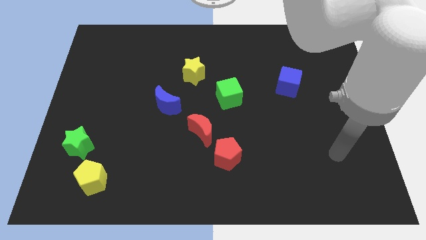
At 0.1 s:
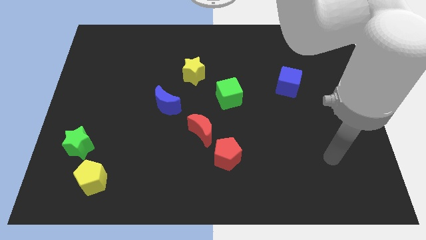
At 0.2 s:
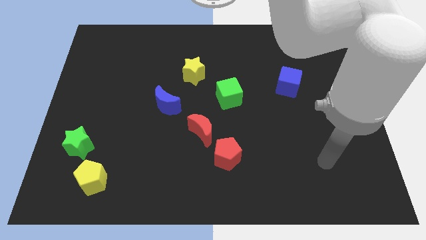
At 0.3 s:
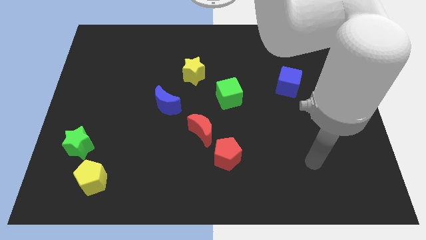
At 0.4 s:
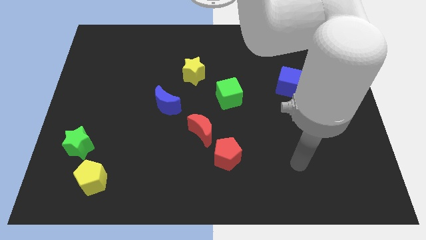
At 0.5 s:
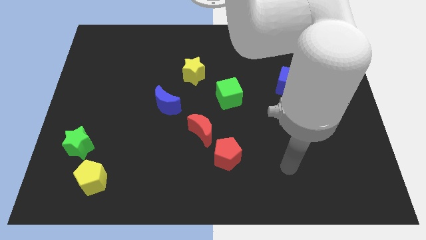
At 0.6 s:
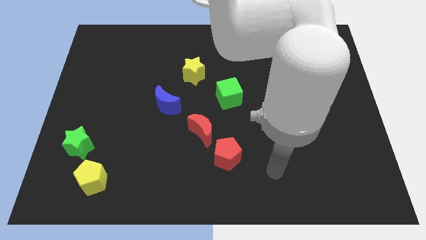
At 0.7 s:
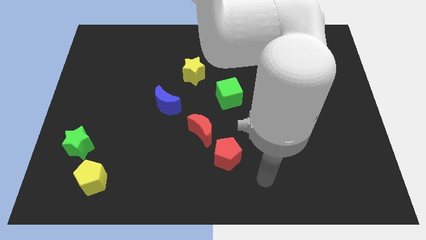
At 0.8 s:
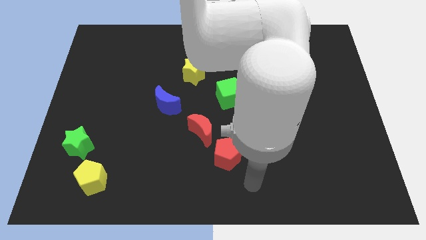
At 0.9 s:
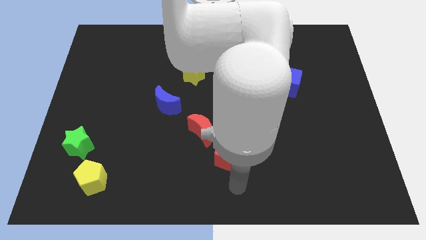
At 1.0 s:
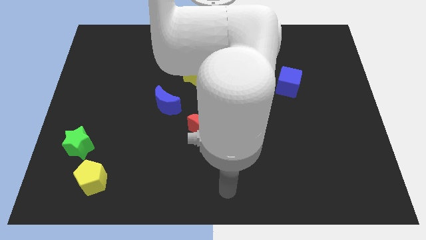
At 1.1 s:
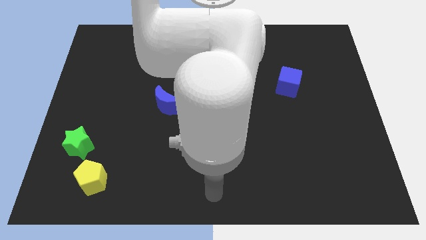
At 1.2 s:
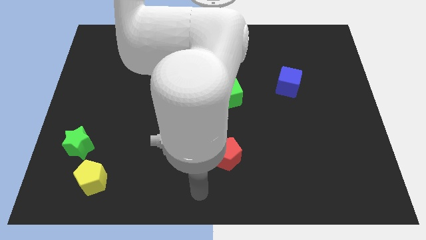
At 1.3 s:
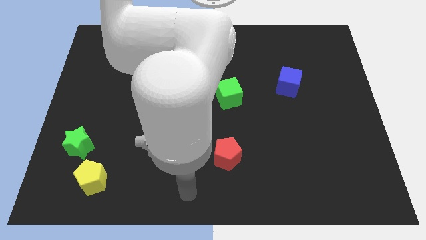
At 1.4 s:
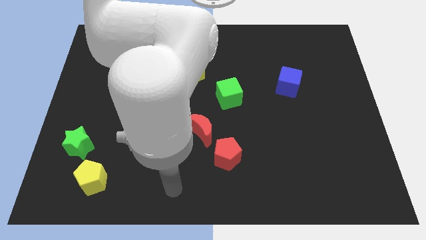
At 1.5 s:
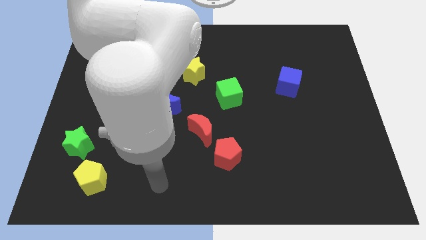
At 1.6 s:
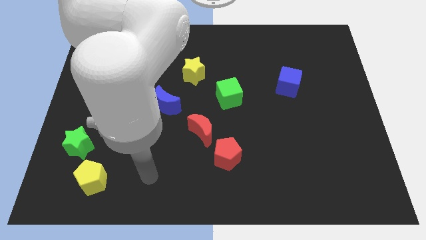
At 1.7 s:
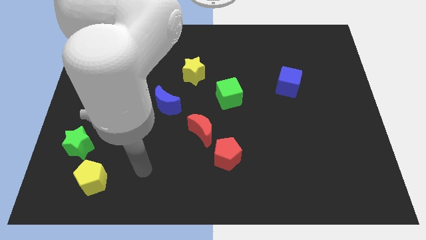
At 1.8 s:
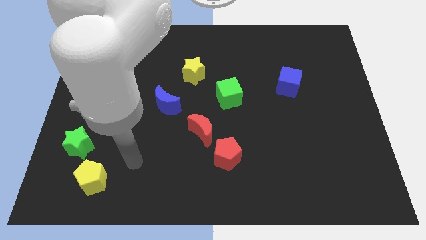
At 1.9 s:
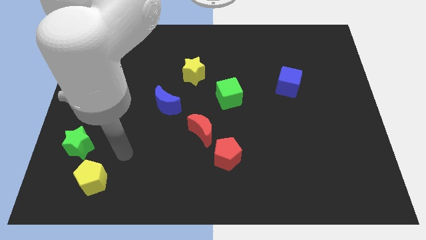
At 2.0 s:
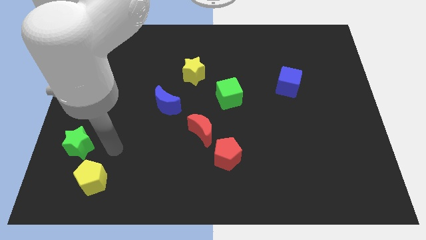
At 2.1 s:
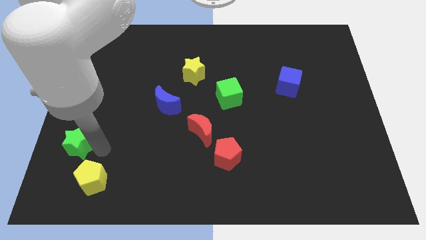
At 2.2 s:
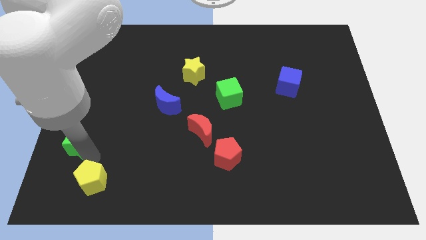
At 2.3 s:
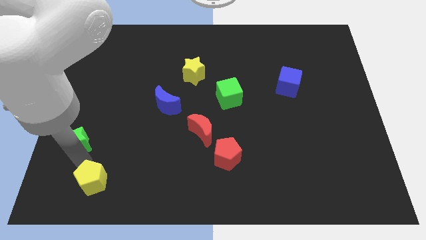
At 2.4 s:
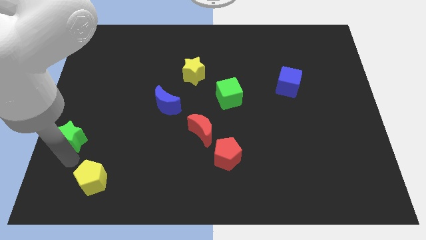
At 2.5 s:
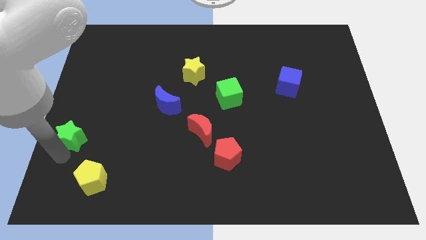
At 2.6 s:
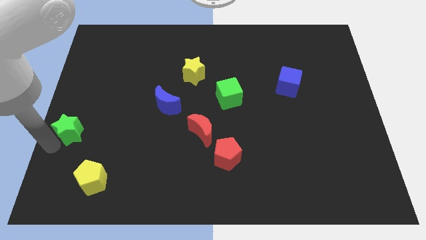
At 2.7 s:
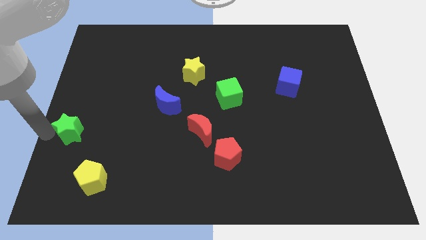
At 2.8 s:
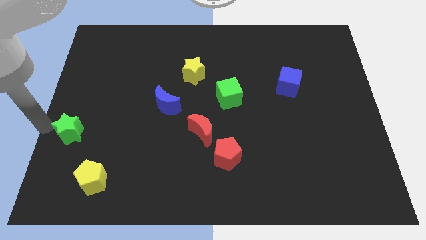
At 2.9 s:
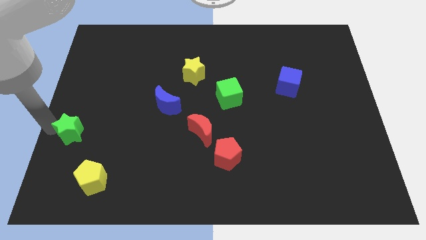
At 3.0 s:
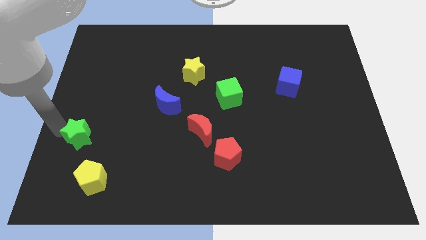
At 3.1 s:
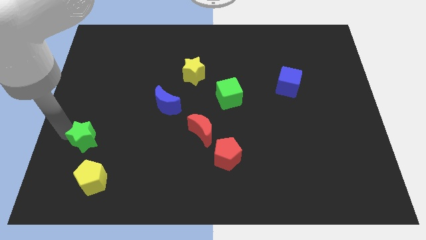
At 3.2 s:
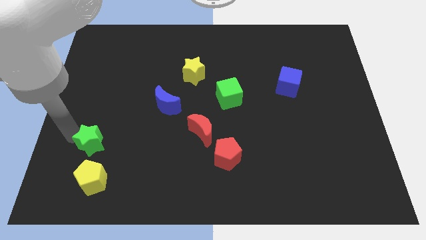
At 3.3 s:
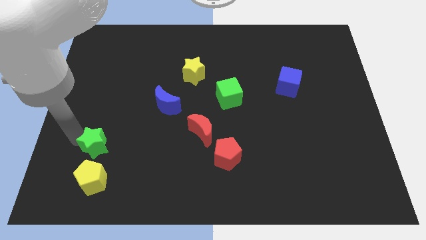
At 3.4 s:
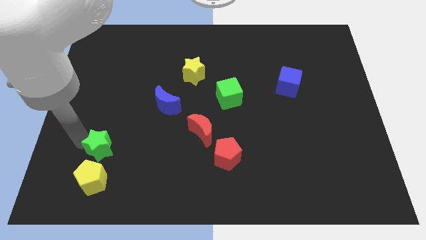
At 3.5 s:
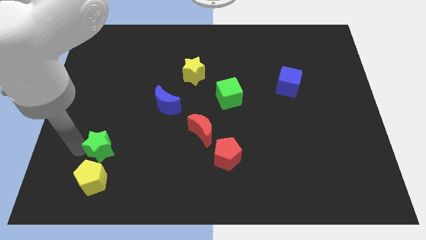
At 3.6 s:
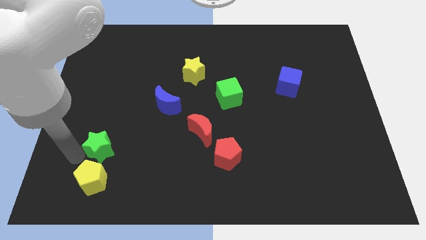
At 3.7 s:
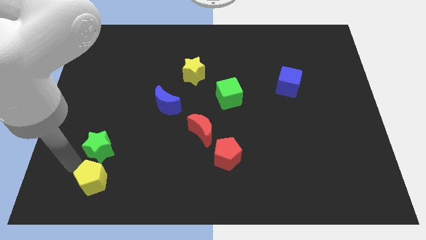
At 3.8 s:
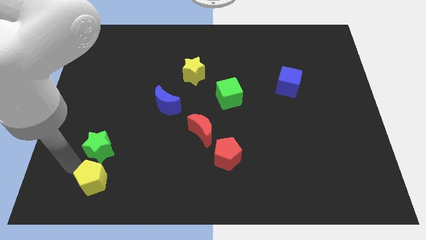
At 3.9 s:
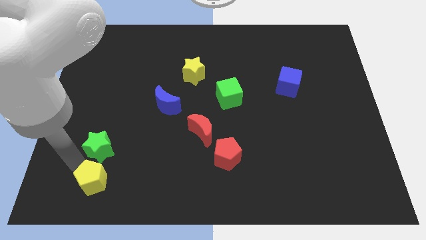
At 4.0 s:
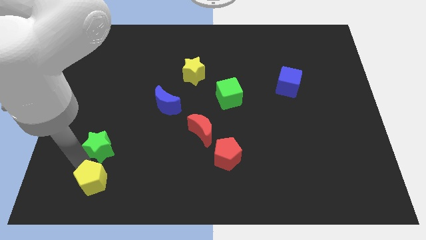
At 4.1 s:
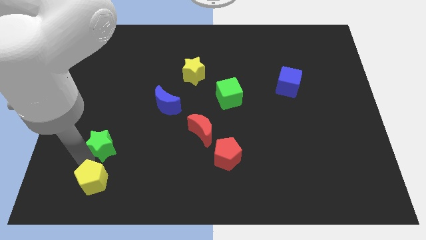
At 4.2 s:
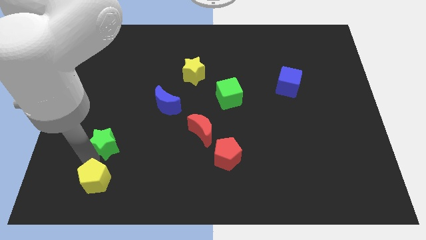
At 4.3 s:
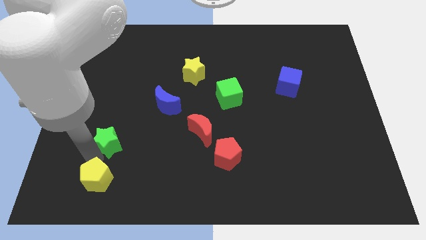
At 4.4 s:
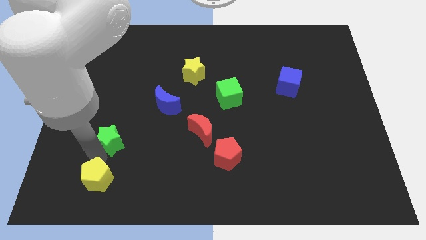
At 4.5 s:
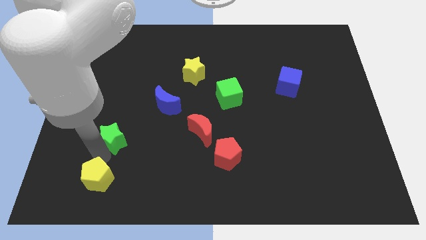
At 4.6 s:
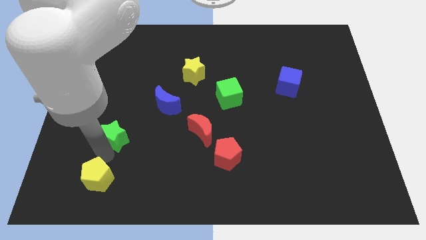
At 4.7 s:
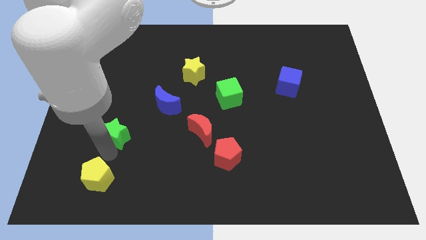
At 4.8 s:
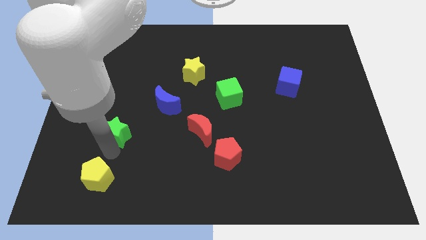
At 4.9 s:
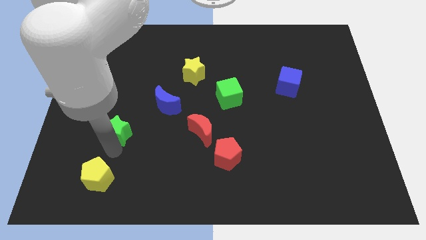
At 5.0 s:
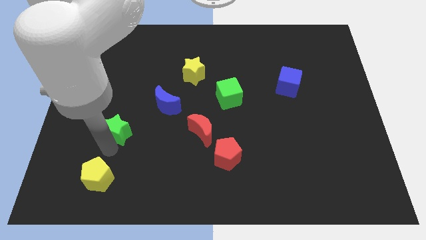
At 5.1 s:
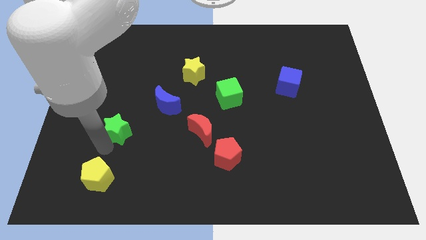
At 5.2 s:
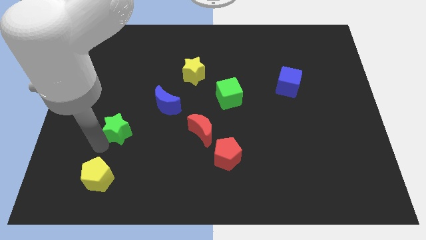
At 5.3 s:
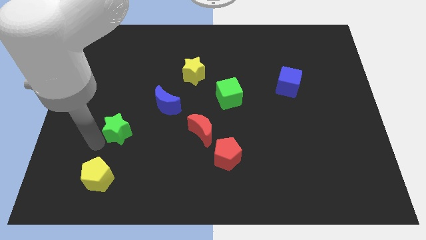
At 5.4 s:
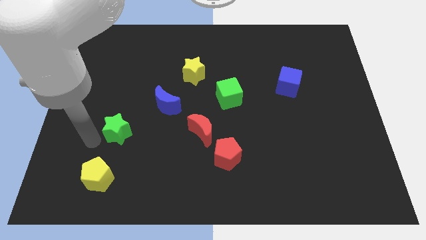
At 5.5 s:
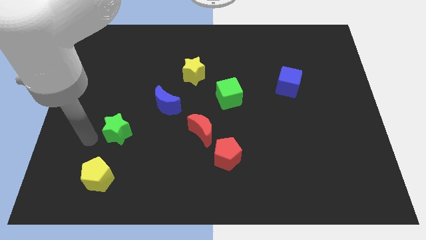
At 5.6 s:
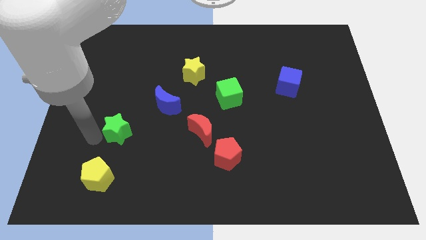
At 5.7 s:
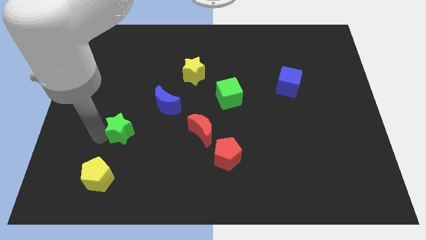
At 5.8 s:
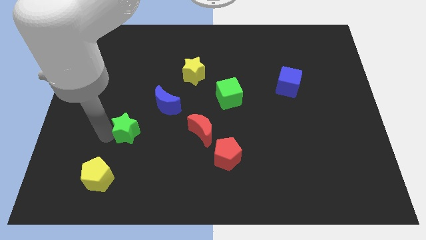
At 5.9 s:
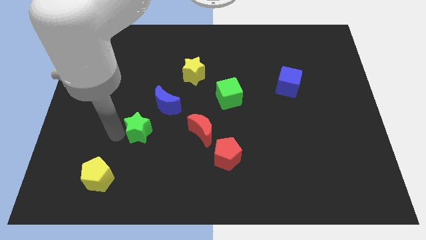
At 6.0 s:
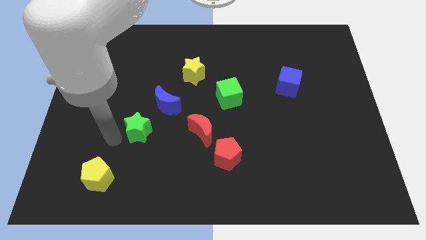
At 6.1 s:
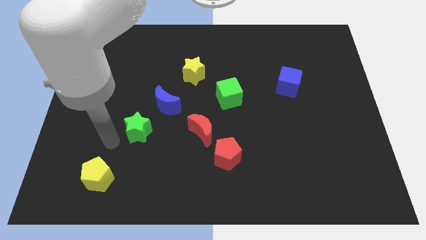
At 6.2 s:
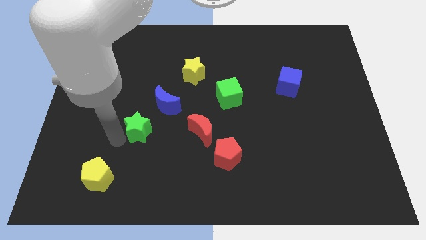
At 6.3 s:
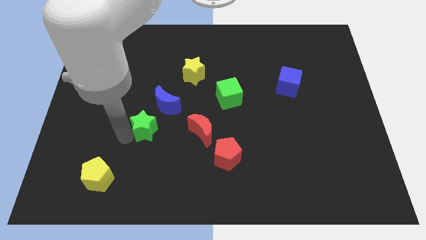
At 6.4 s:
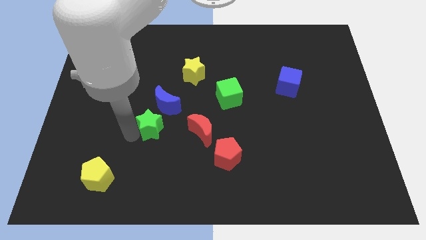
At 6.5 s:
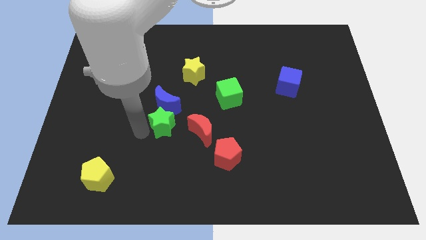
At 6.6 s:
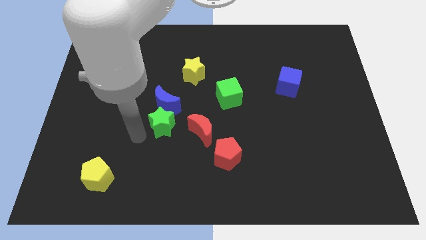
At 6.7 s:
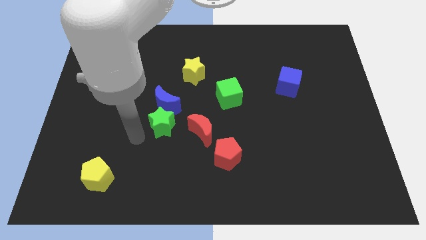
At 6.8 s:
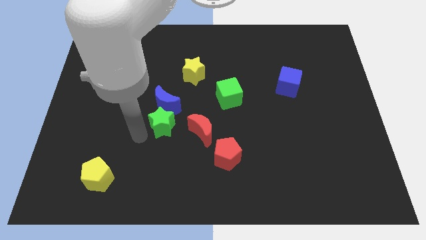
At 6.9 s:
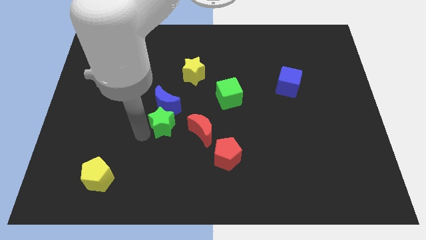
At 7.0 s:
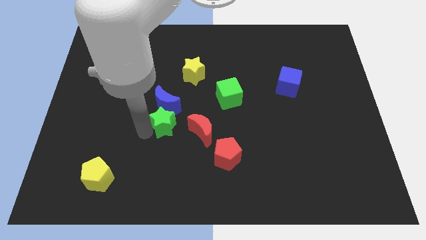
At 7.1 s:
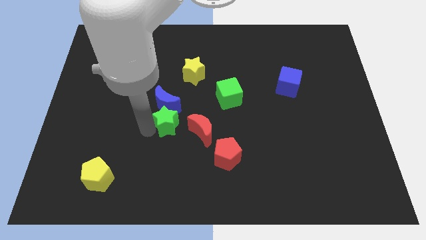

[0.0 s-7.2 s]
move the green star to the middle of the board
